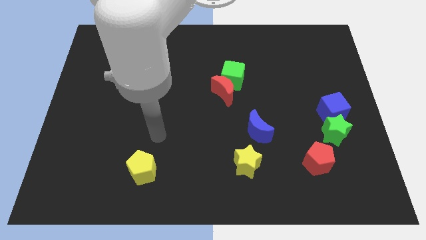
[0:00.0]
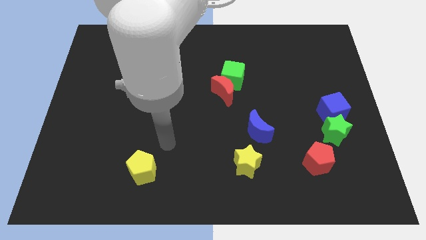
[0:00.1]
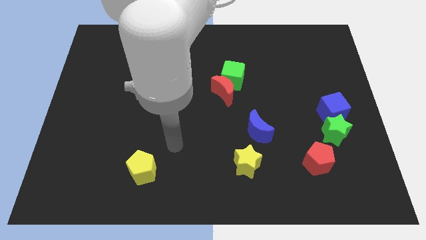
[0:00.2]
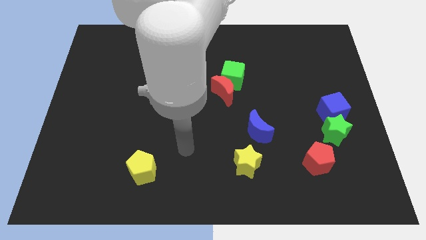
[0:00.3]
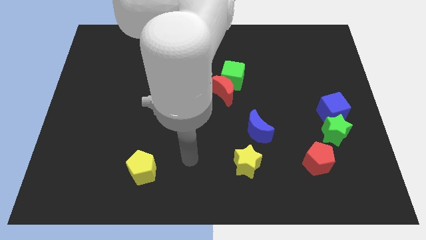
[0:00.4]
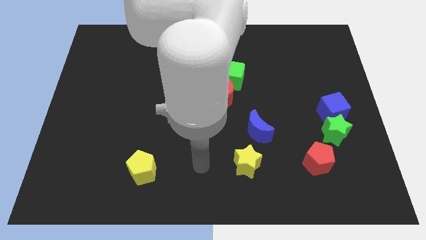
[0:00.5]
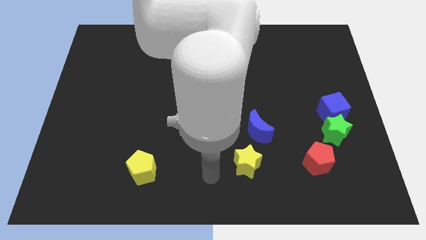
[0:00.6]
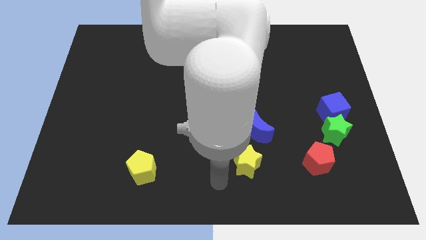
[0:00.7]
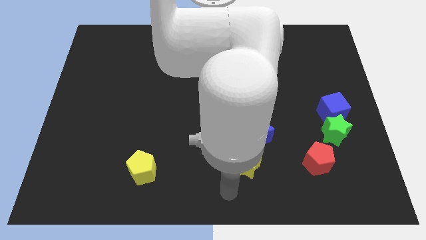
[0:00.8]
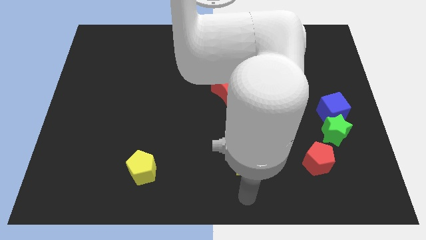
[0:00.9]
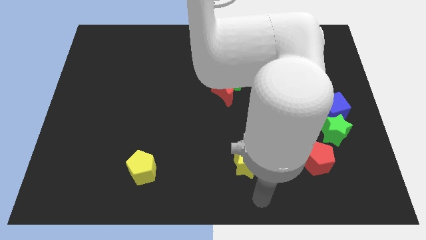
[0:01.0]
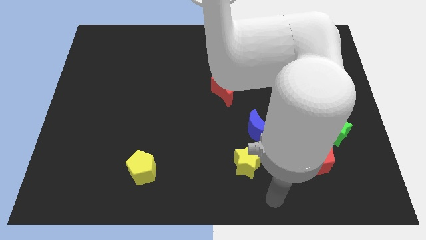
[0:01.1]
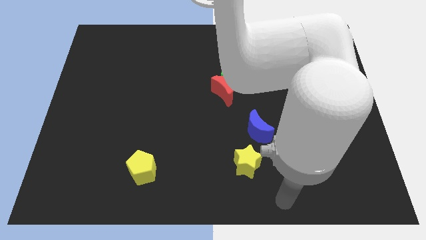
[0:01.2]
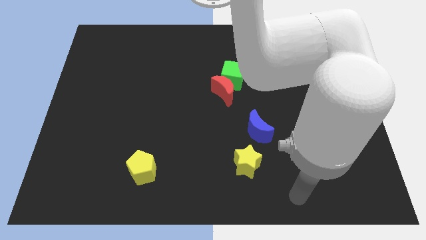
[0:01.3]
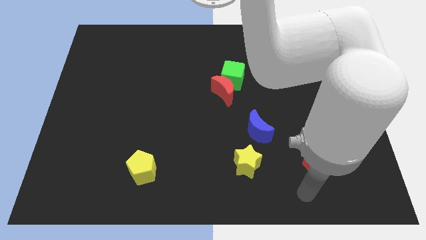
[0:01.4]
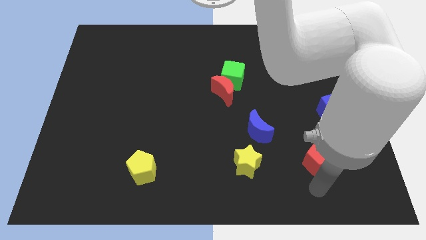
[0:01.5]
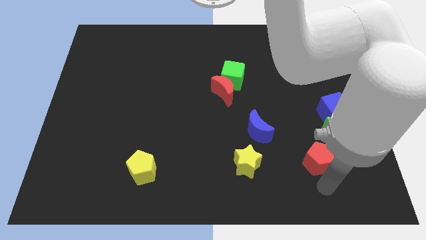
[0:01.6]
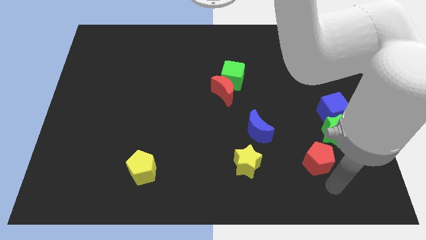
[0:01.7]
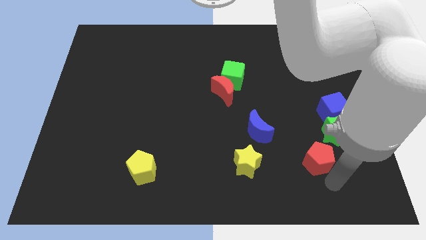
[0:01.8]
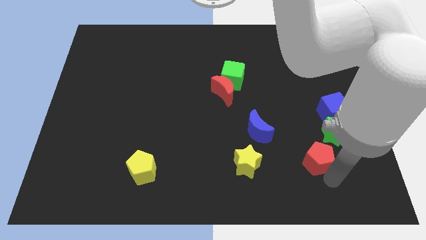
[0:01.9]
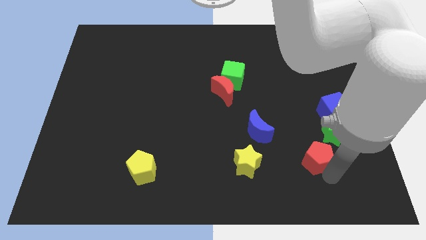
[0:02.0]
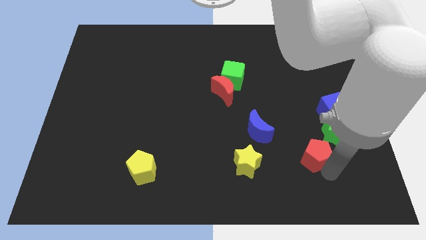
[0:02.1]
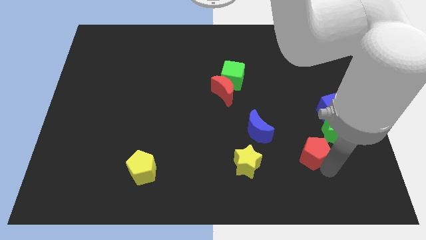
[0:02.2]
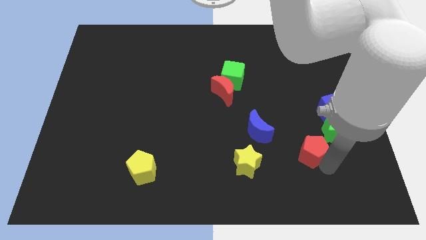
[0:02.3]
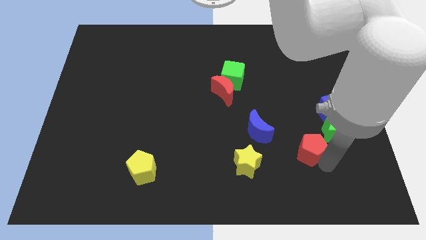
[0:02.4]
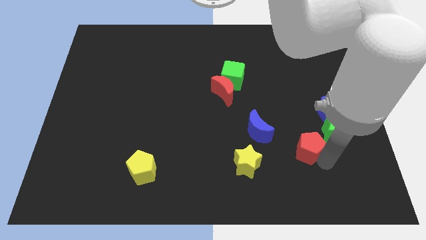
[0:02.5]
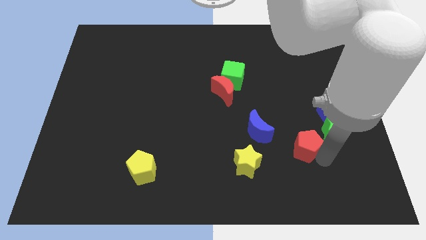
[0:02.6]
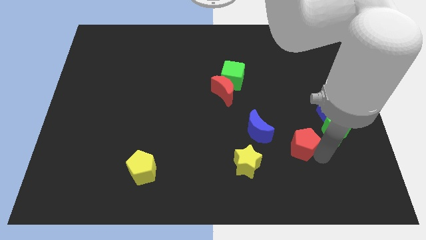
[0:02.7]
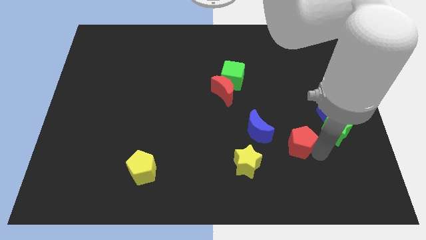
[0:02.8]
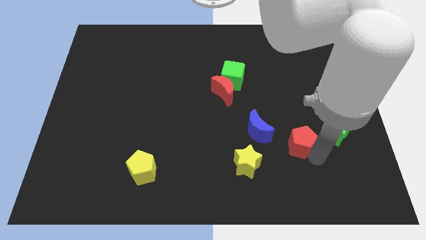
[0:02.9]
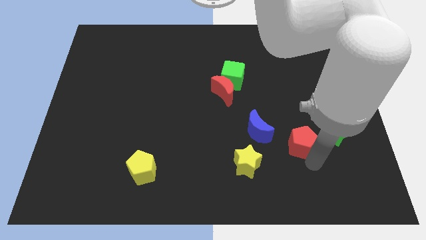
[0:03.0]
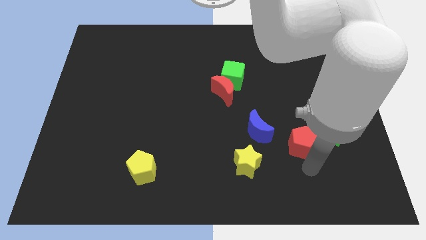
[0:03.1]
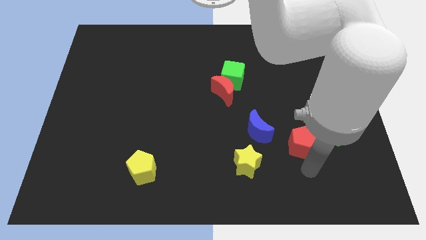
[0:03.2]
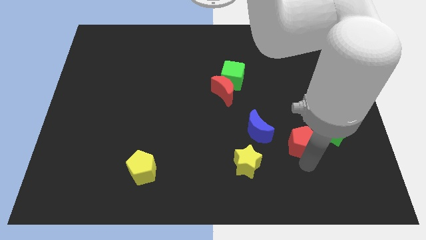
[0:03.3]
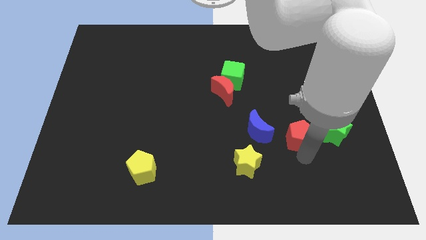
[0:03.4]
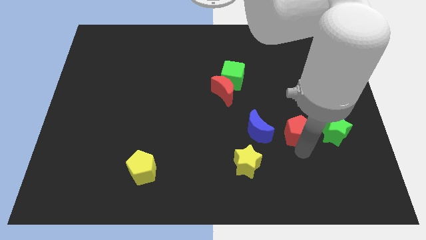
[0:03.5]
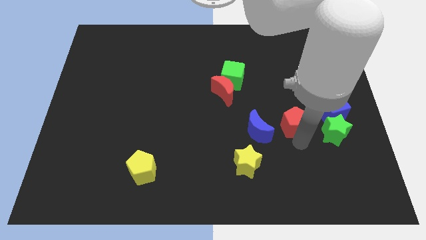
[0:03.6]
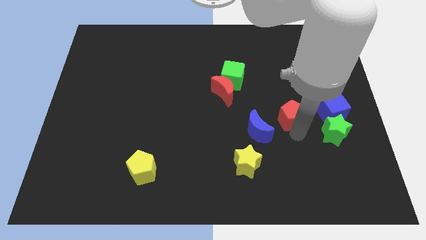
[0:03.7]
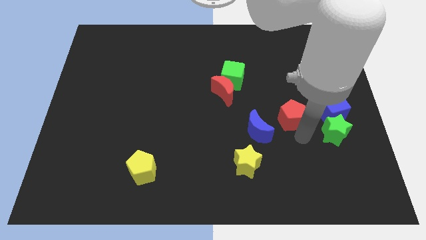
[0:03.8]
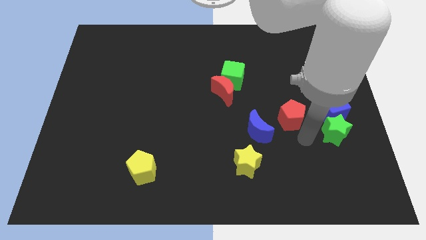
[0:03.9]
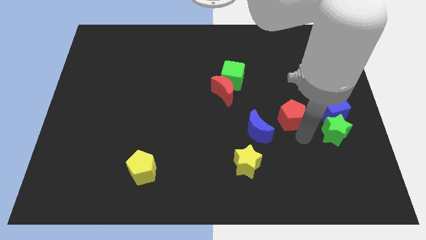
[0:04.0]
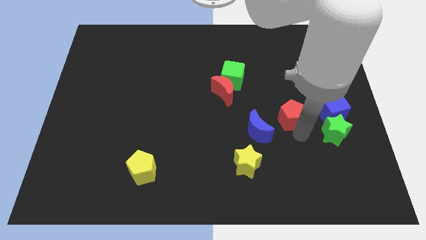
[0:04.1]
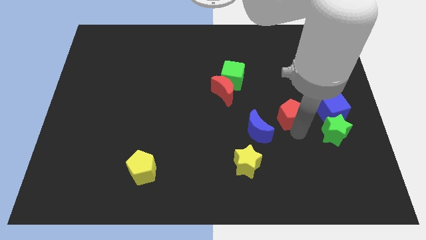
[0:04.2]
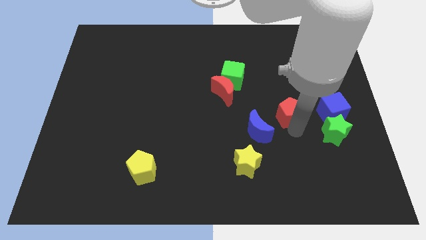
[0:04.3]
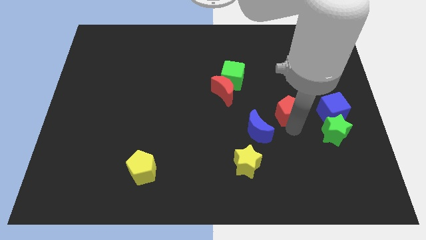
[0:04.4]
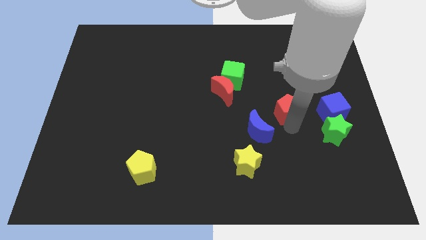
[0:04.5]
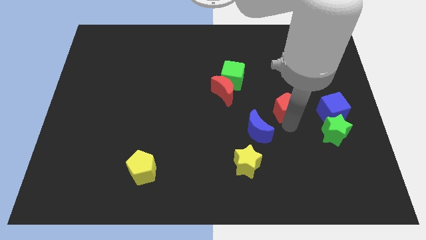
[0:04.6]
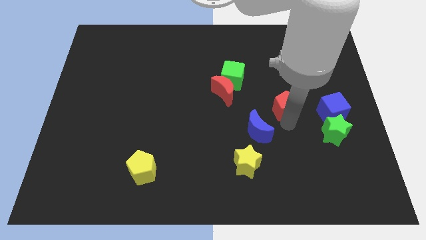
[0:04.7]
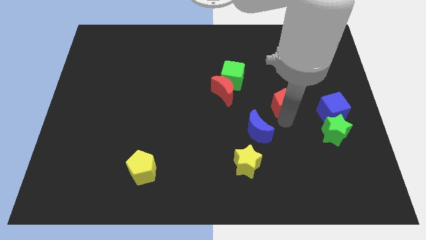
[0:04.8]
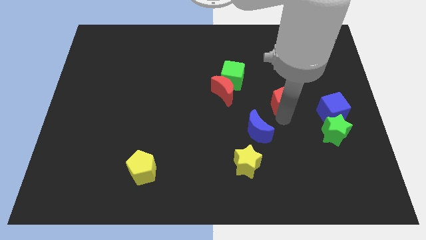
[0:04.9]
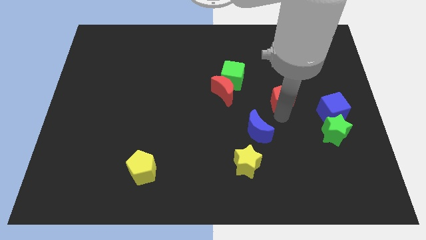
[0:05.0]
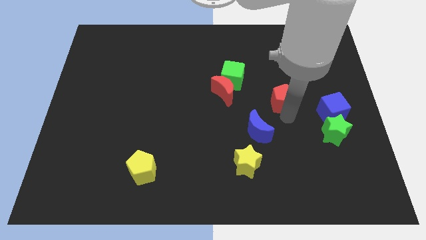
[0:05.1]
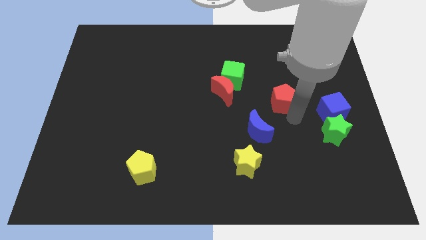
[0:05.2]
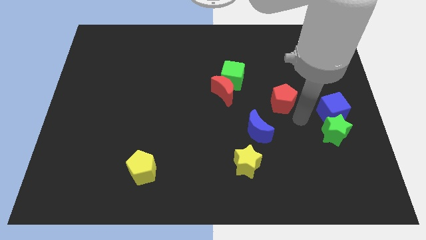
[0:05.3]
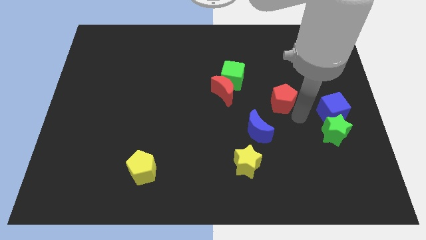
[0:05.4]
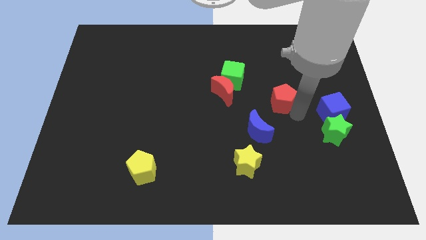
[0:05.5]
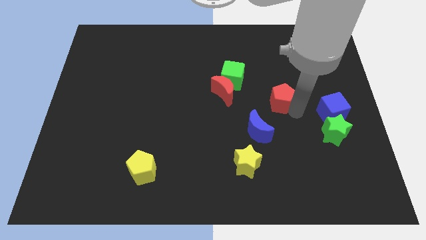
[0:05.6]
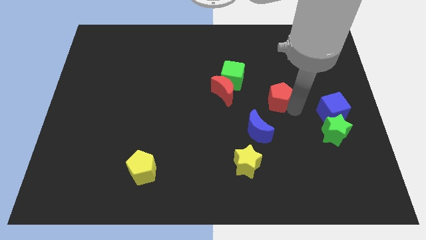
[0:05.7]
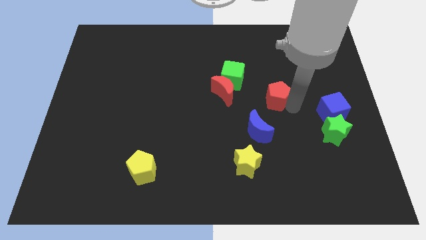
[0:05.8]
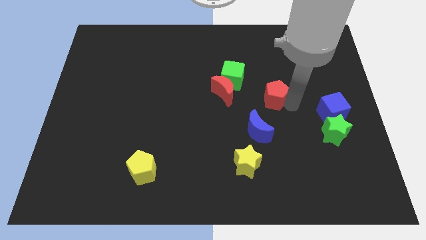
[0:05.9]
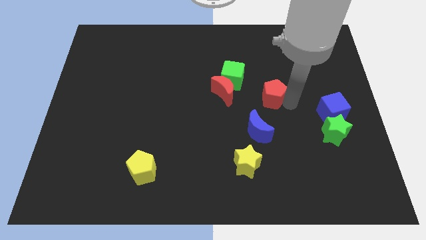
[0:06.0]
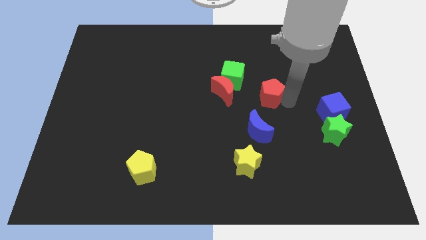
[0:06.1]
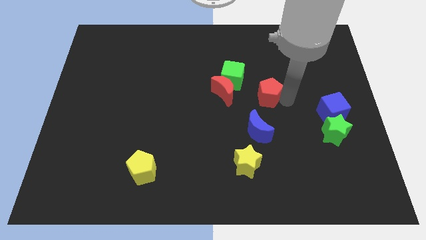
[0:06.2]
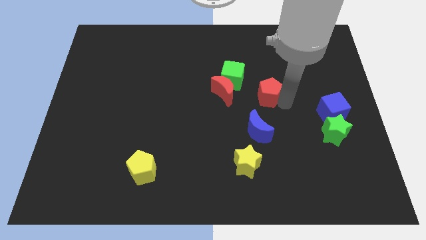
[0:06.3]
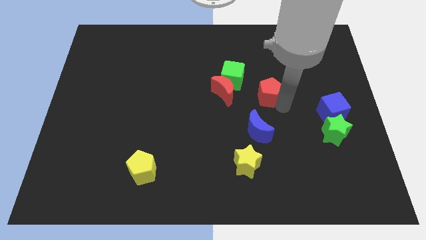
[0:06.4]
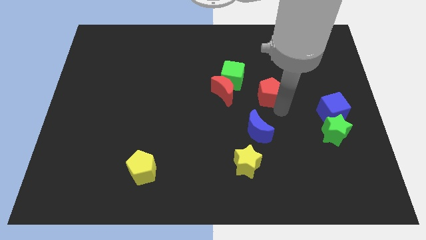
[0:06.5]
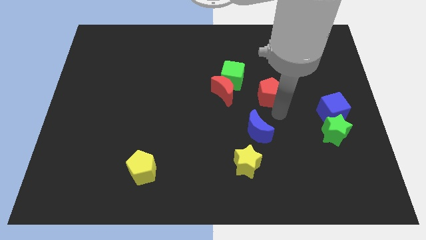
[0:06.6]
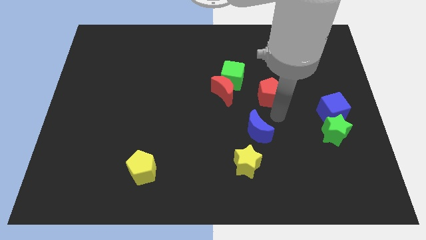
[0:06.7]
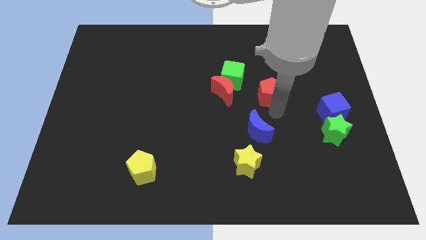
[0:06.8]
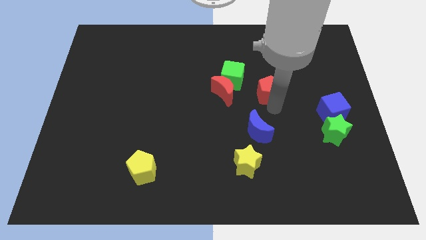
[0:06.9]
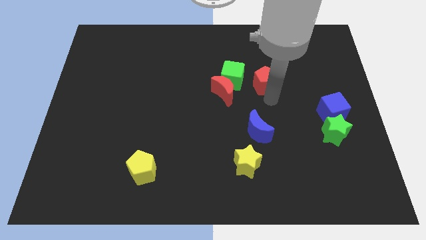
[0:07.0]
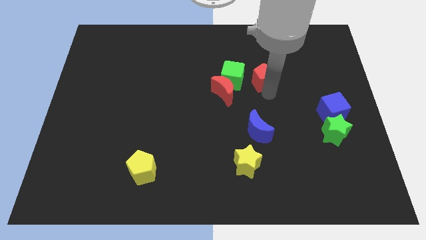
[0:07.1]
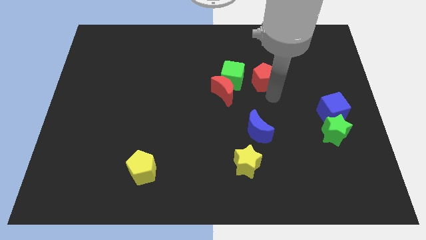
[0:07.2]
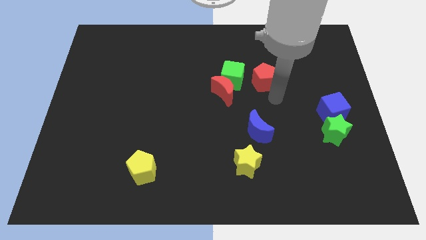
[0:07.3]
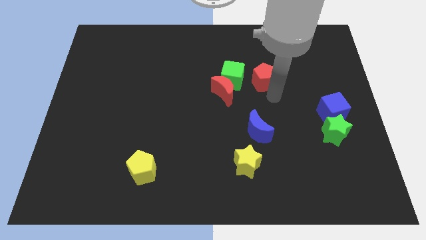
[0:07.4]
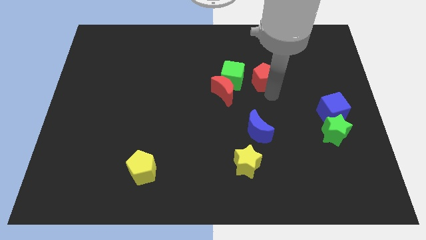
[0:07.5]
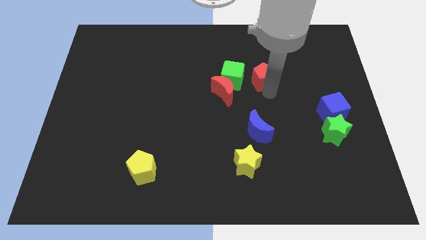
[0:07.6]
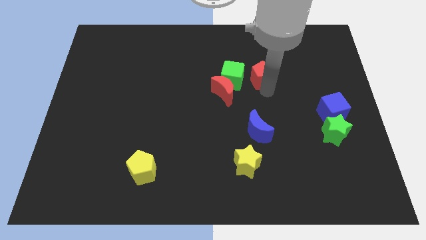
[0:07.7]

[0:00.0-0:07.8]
push the red pentagon to the top right of the green cube
